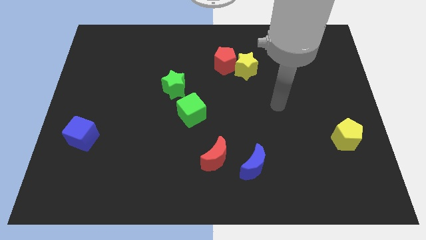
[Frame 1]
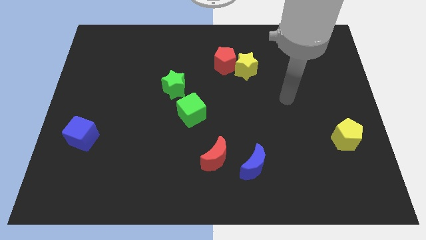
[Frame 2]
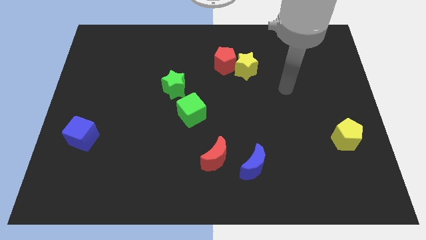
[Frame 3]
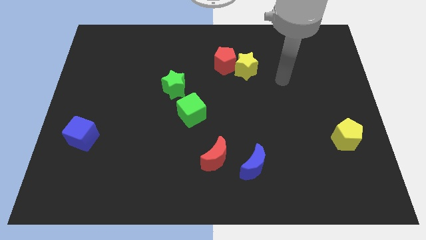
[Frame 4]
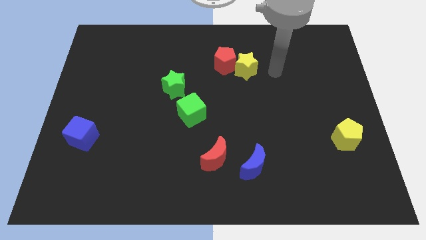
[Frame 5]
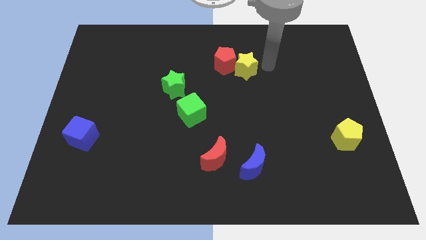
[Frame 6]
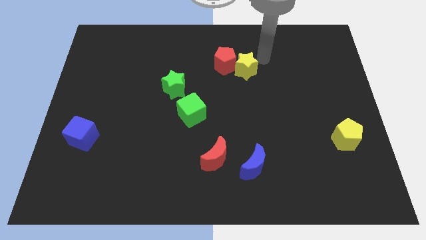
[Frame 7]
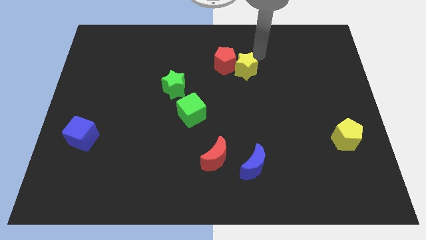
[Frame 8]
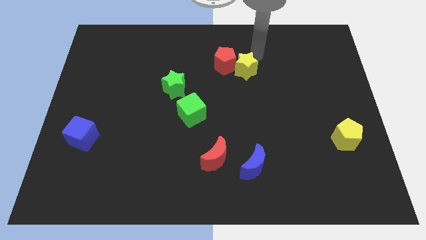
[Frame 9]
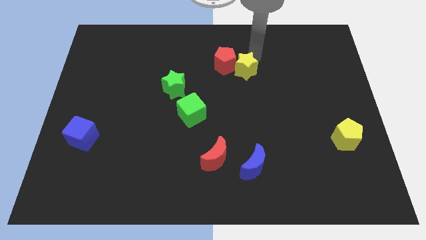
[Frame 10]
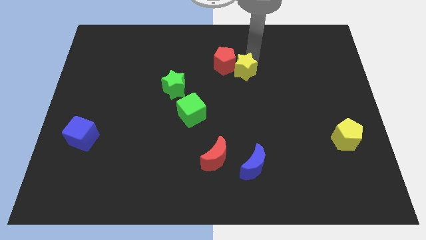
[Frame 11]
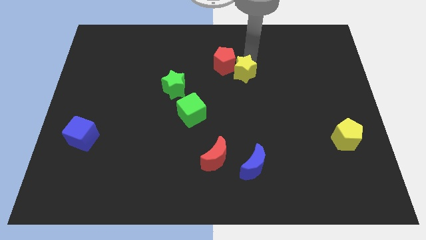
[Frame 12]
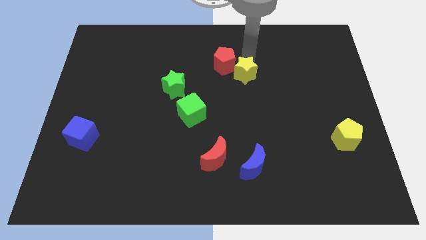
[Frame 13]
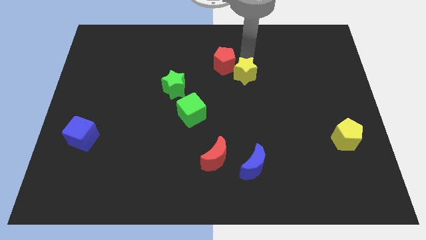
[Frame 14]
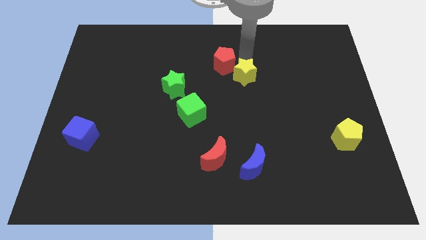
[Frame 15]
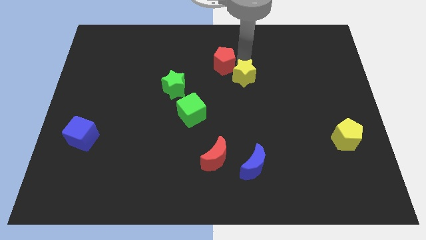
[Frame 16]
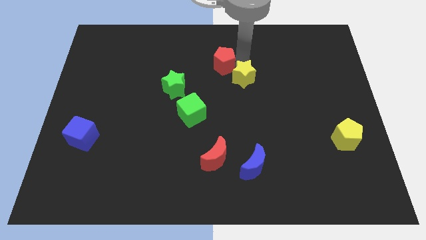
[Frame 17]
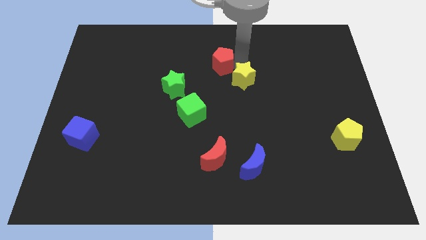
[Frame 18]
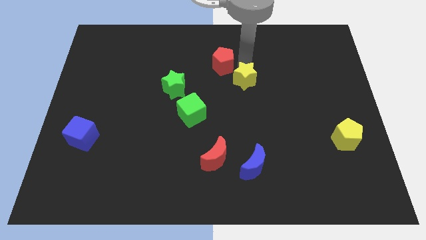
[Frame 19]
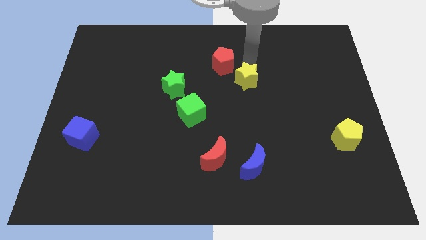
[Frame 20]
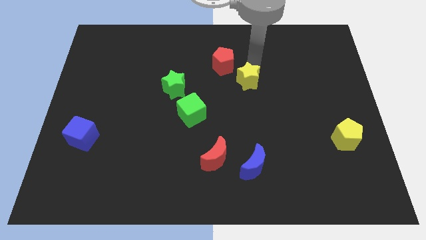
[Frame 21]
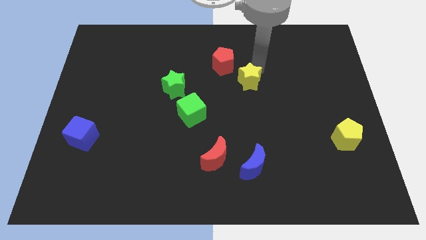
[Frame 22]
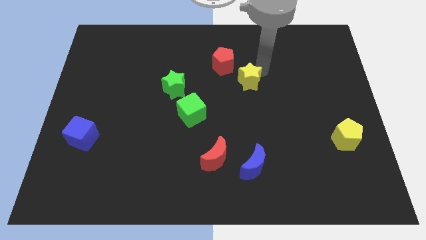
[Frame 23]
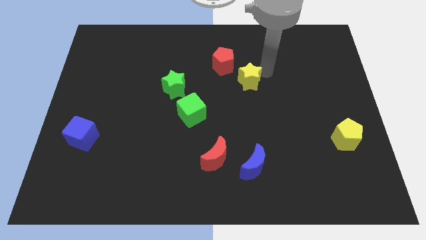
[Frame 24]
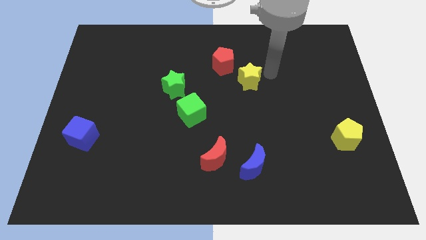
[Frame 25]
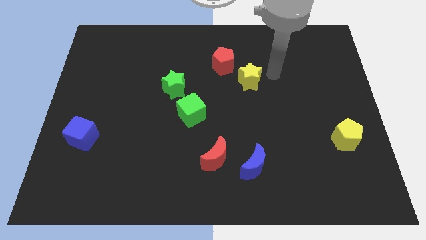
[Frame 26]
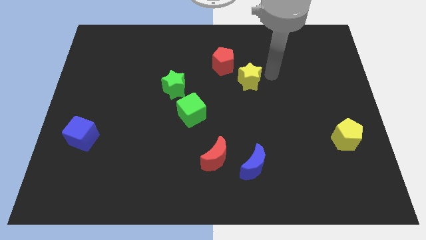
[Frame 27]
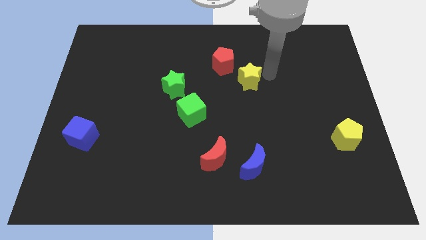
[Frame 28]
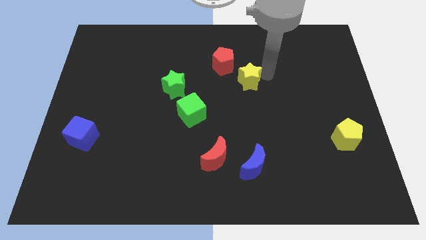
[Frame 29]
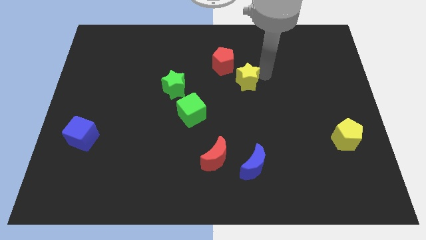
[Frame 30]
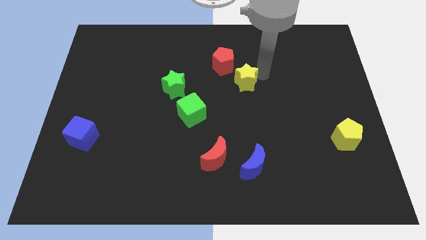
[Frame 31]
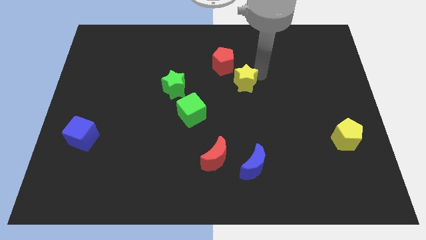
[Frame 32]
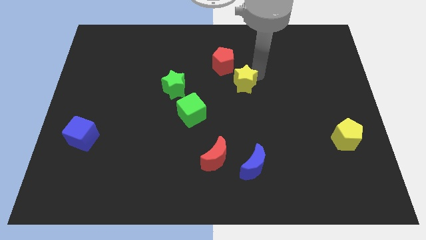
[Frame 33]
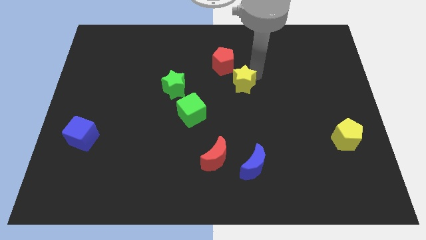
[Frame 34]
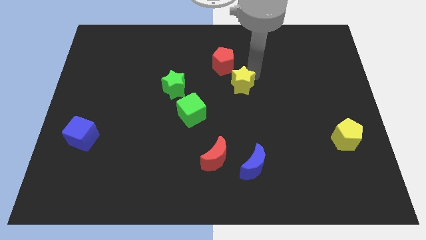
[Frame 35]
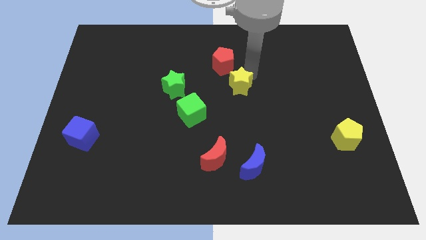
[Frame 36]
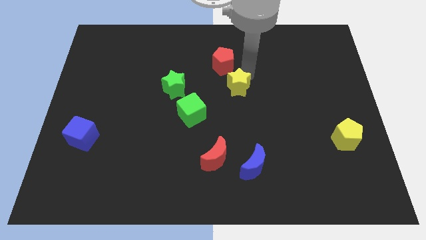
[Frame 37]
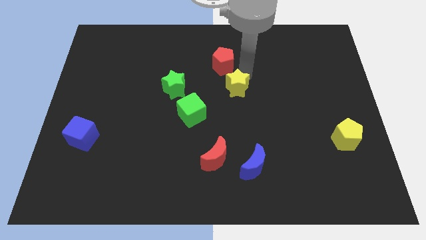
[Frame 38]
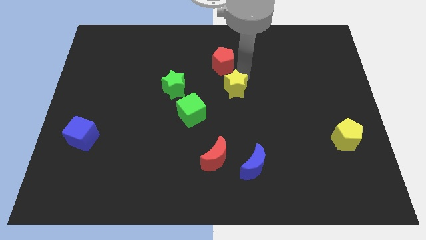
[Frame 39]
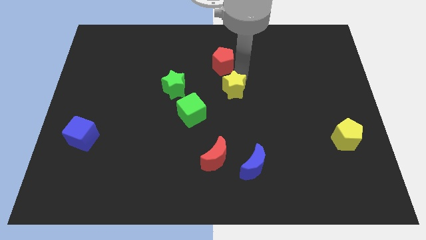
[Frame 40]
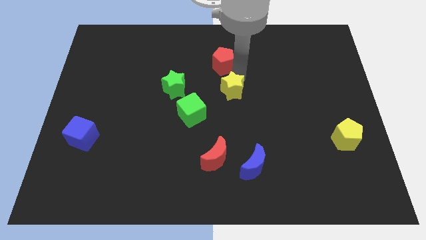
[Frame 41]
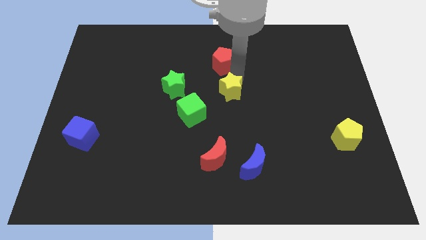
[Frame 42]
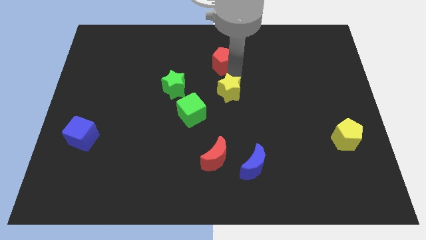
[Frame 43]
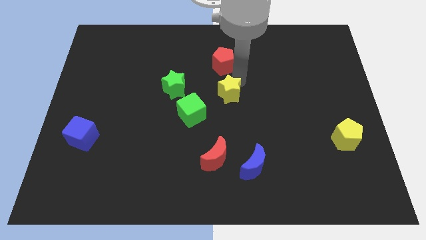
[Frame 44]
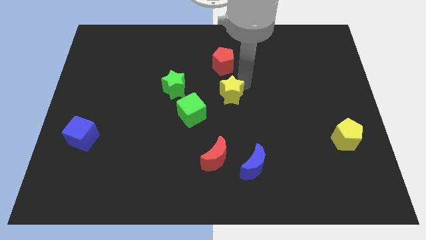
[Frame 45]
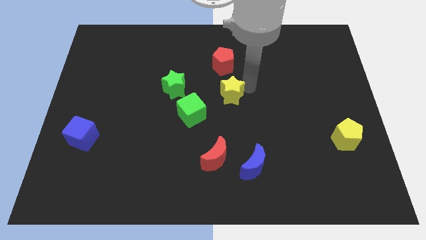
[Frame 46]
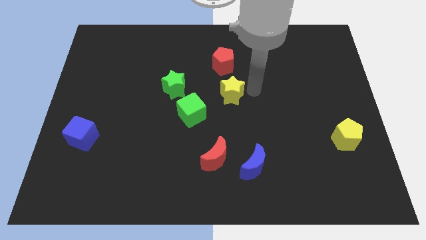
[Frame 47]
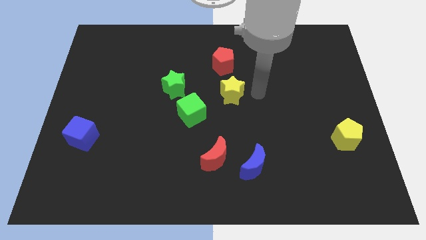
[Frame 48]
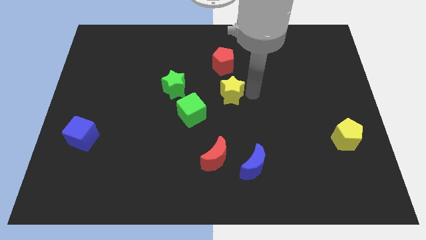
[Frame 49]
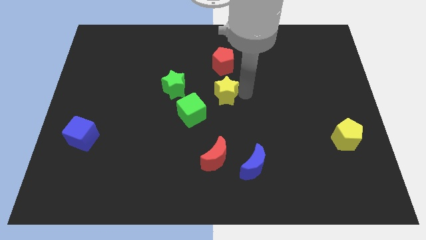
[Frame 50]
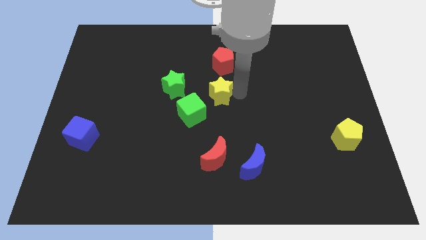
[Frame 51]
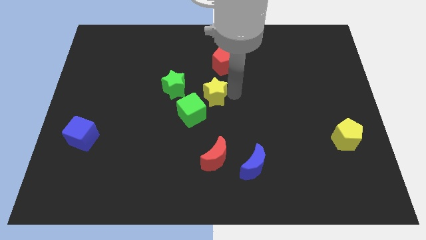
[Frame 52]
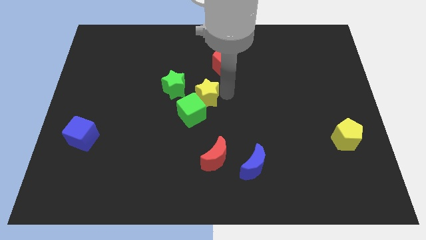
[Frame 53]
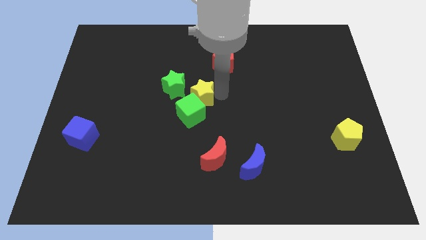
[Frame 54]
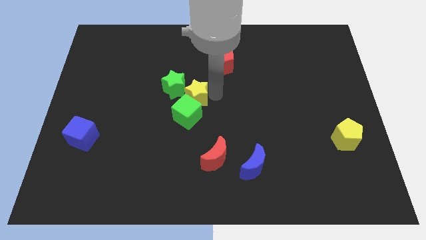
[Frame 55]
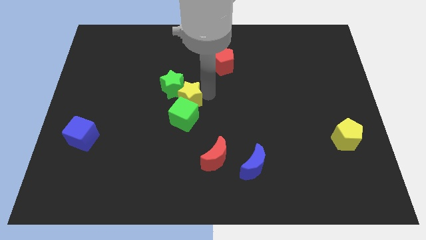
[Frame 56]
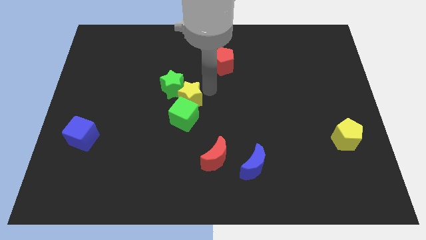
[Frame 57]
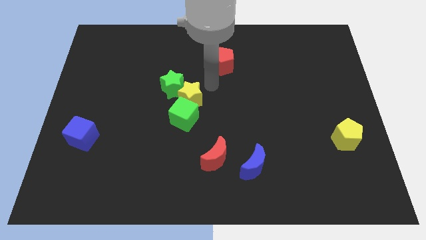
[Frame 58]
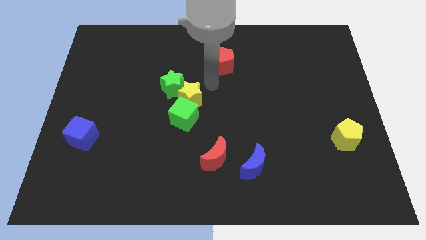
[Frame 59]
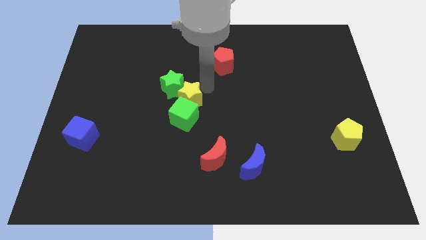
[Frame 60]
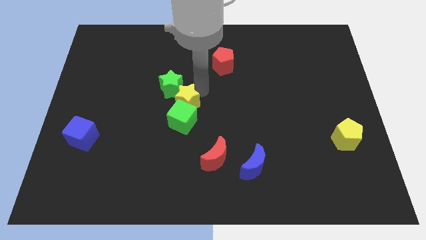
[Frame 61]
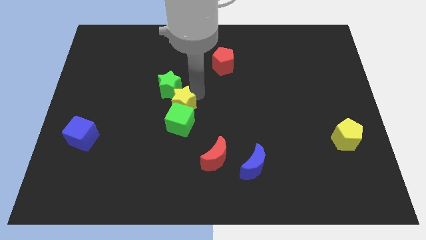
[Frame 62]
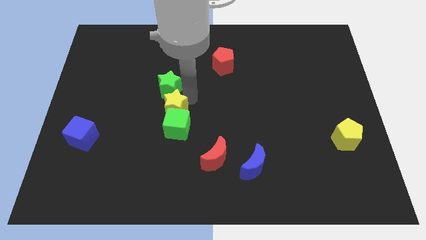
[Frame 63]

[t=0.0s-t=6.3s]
slide the yellow star downwards and then to the left

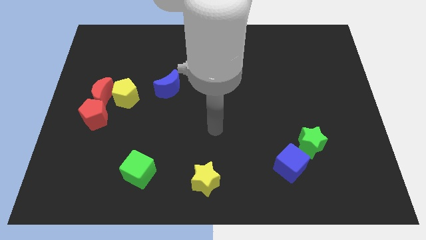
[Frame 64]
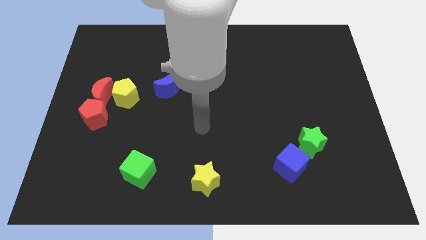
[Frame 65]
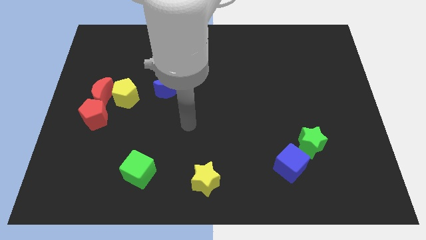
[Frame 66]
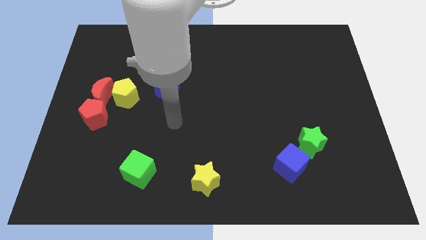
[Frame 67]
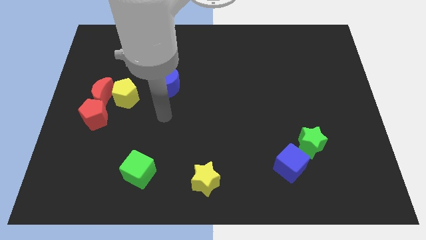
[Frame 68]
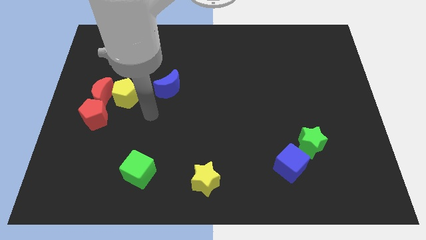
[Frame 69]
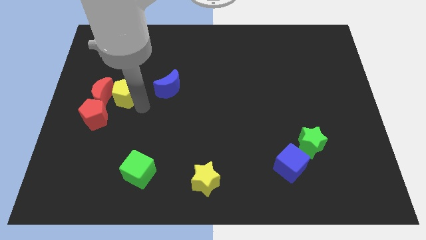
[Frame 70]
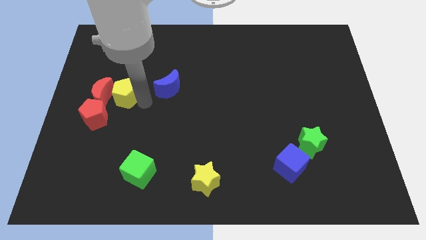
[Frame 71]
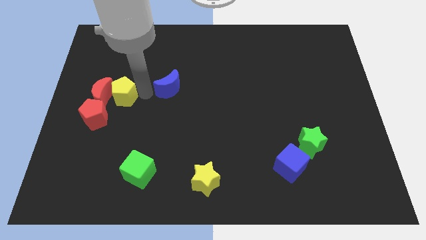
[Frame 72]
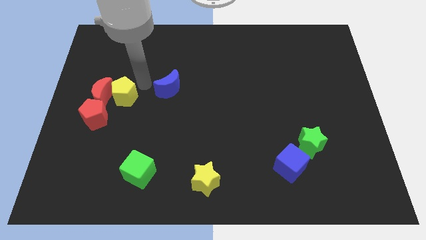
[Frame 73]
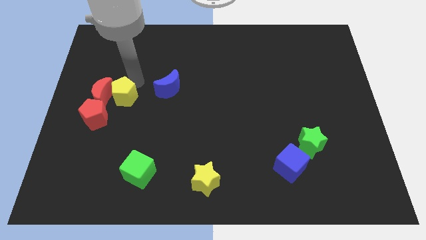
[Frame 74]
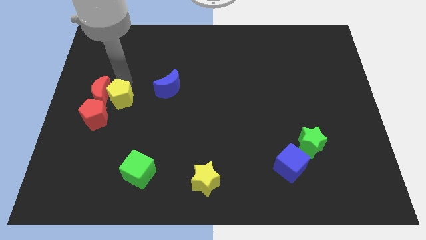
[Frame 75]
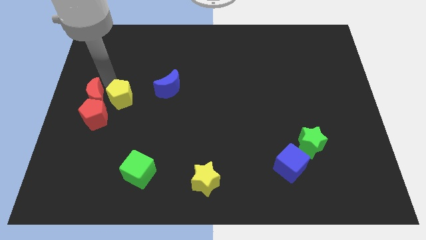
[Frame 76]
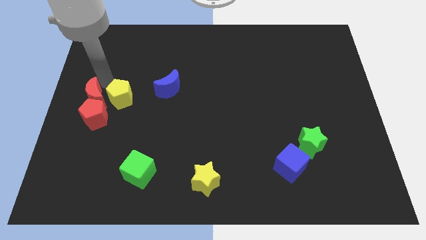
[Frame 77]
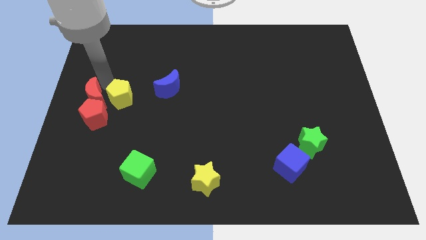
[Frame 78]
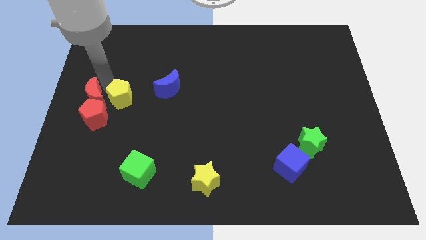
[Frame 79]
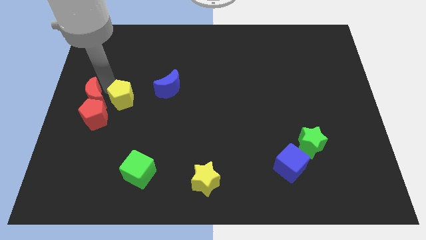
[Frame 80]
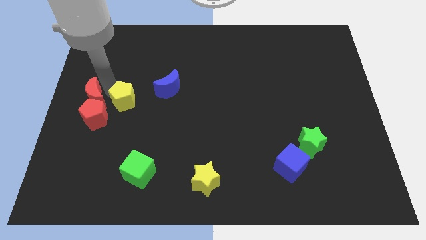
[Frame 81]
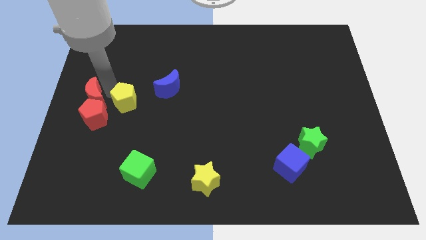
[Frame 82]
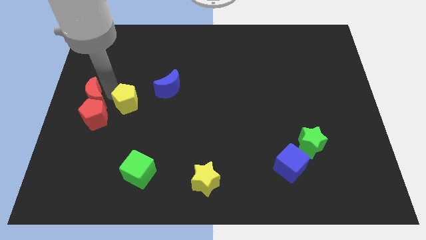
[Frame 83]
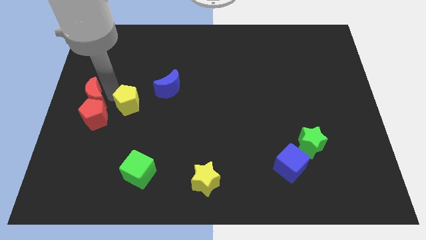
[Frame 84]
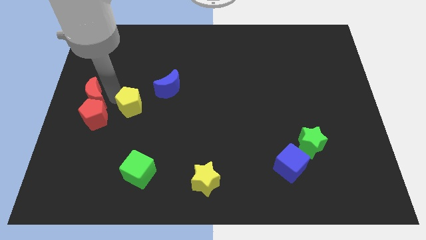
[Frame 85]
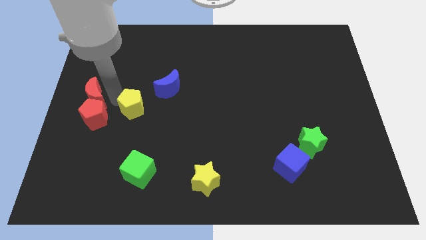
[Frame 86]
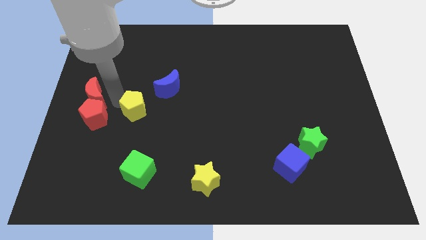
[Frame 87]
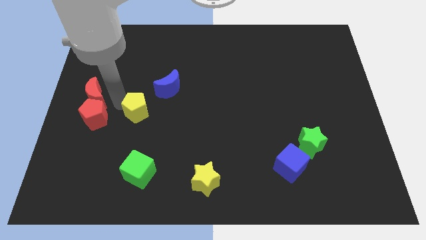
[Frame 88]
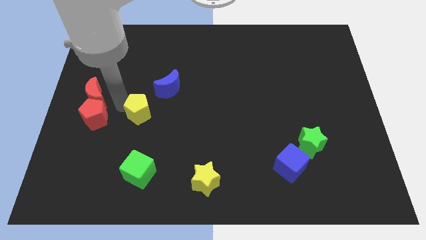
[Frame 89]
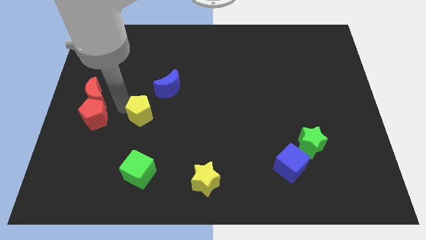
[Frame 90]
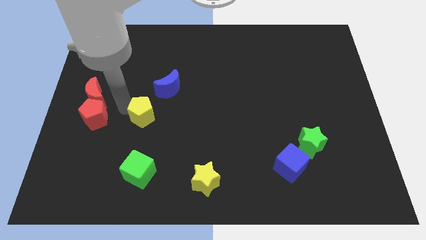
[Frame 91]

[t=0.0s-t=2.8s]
push the yellow pentagon slightly diagonally downwards and to the right
